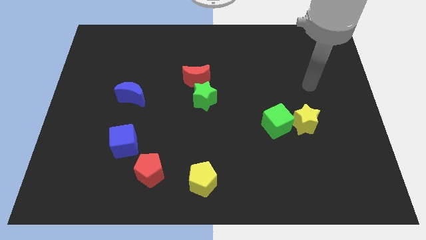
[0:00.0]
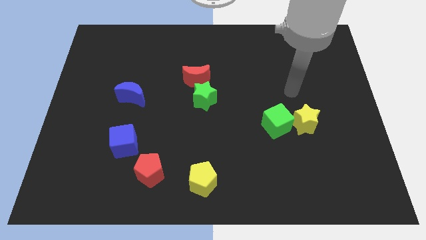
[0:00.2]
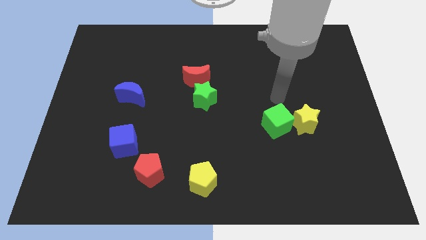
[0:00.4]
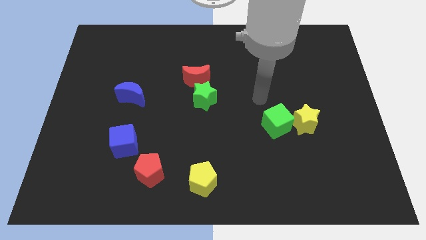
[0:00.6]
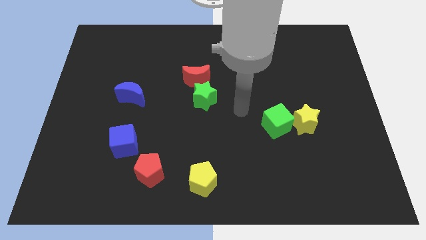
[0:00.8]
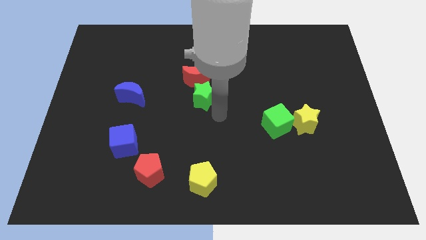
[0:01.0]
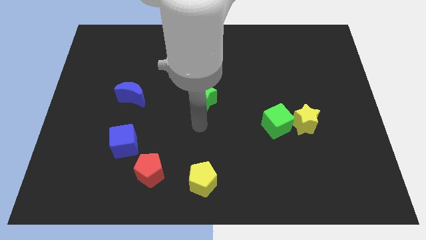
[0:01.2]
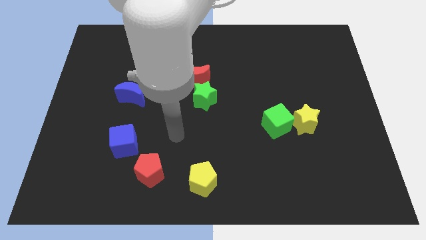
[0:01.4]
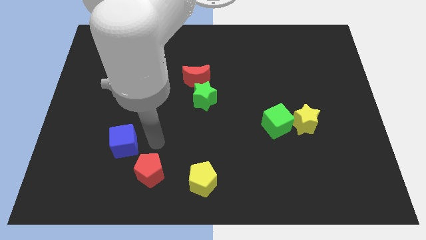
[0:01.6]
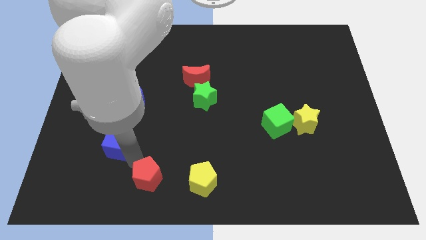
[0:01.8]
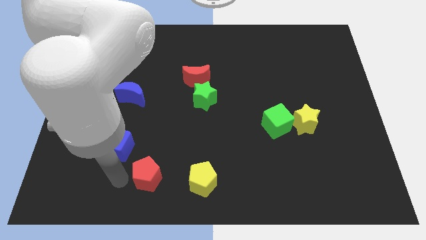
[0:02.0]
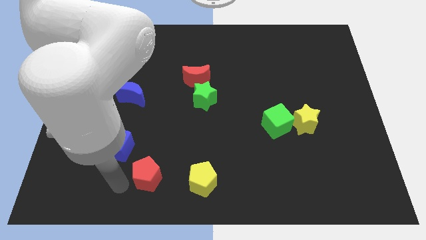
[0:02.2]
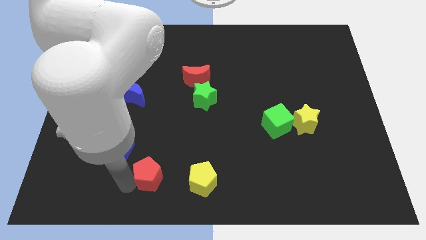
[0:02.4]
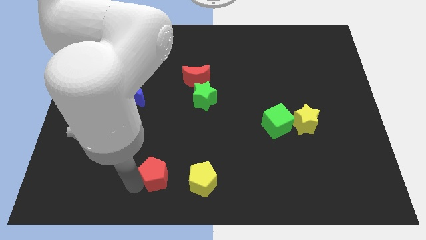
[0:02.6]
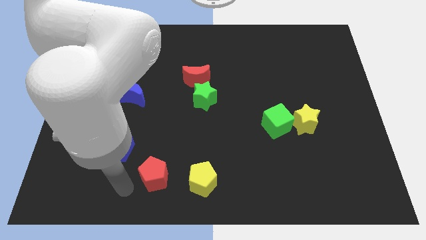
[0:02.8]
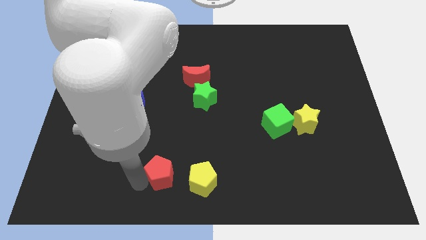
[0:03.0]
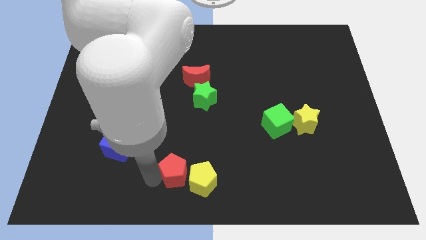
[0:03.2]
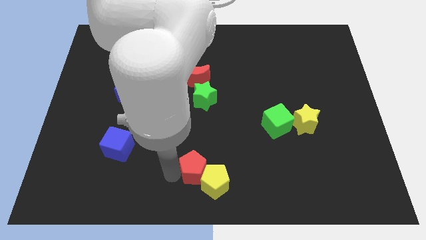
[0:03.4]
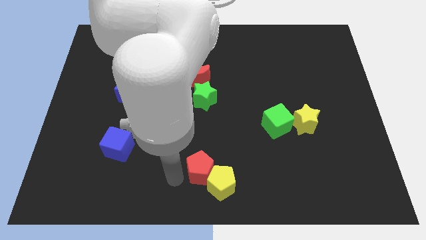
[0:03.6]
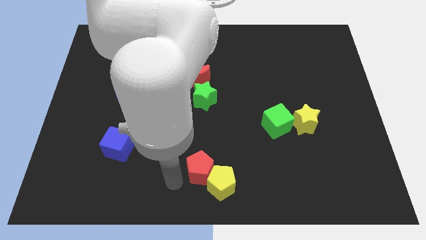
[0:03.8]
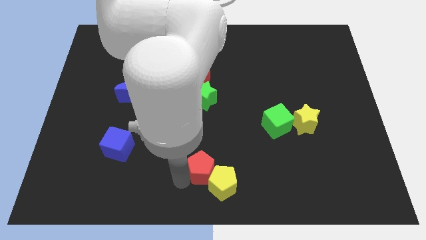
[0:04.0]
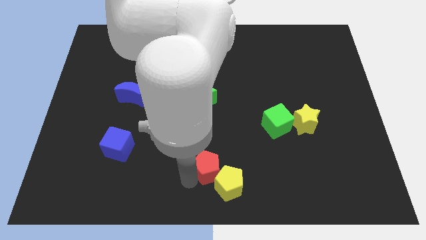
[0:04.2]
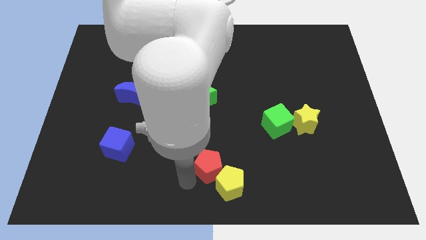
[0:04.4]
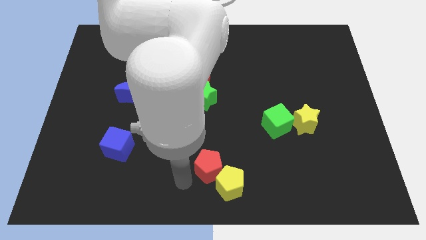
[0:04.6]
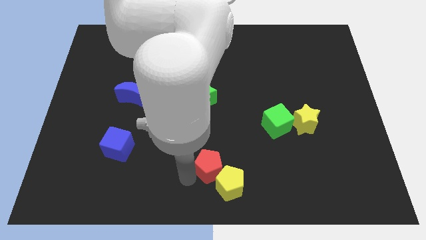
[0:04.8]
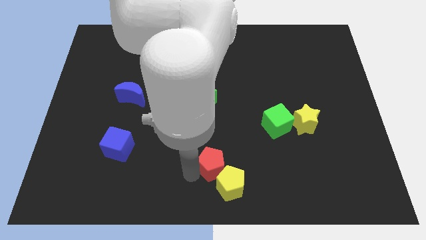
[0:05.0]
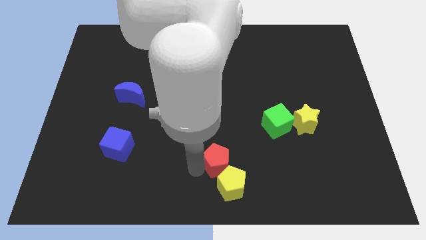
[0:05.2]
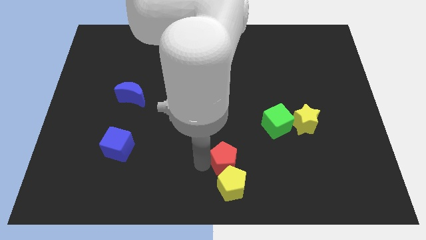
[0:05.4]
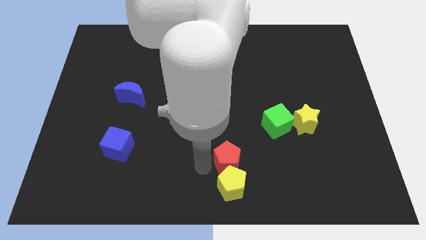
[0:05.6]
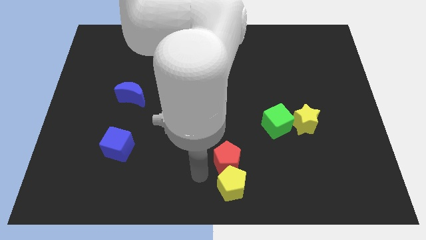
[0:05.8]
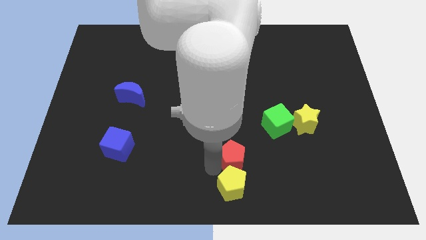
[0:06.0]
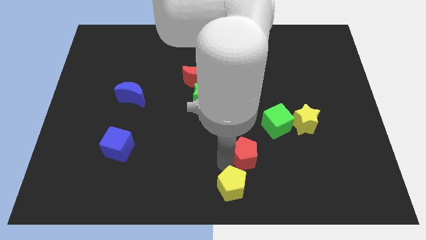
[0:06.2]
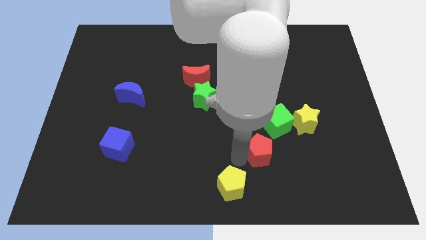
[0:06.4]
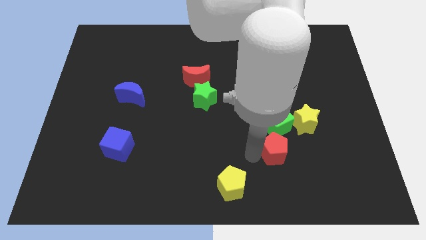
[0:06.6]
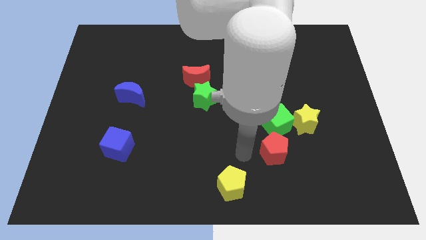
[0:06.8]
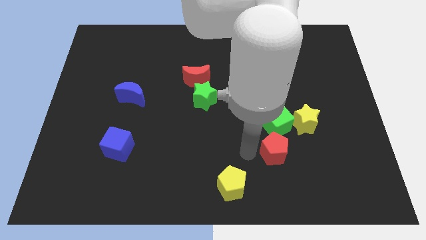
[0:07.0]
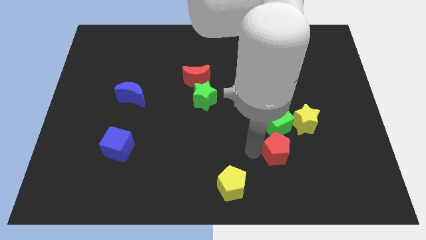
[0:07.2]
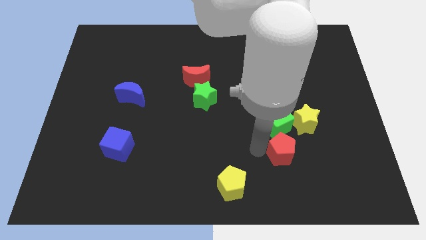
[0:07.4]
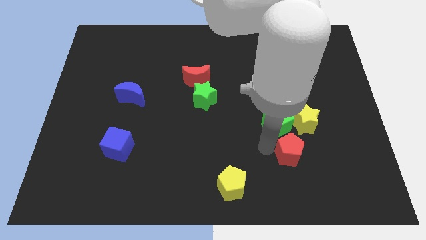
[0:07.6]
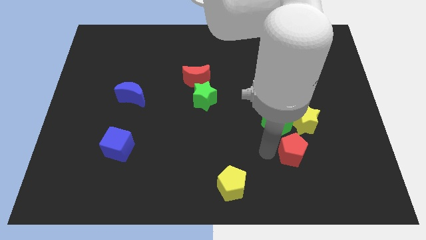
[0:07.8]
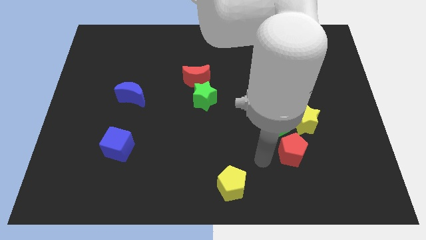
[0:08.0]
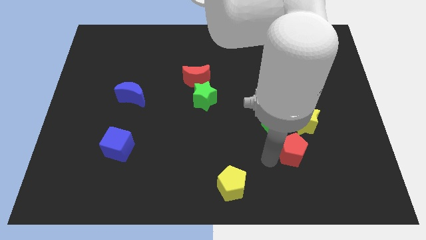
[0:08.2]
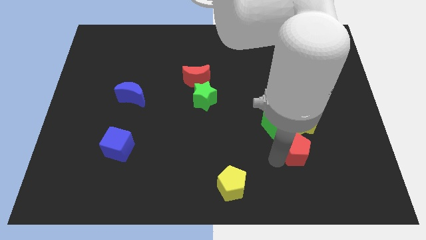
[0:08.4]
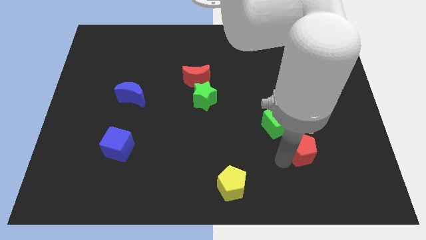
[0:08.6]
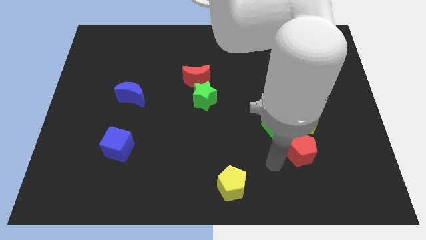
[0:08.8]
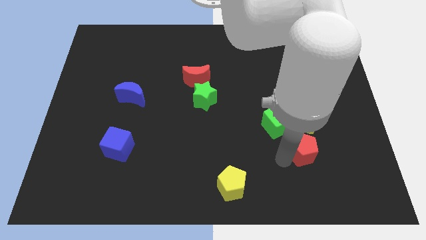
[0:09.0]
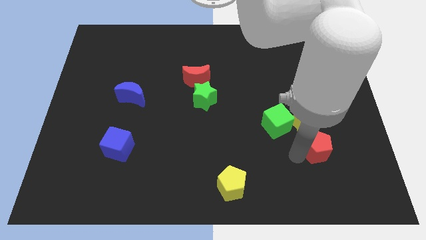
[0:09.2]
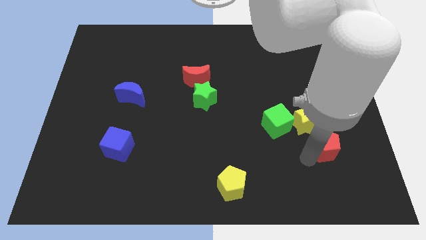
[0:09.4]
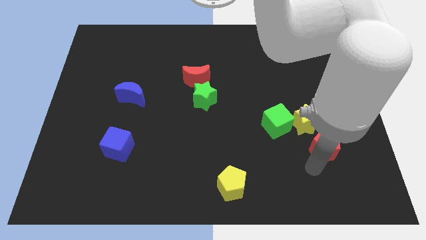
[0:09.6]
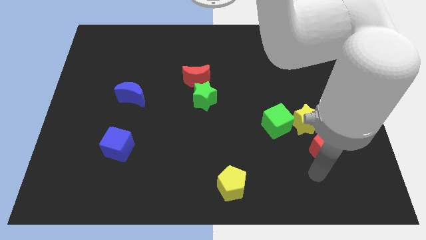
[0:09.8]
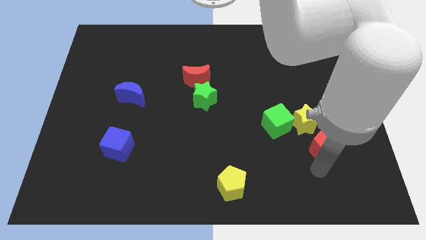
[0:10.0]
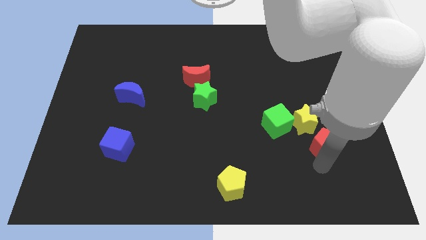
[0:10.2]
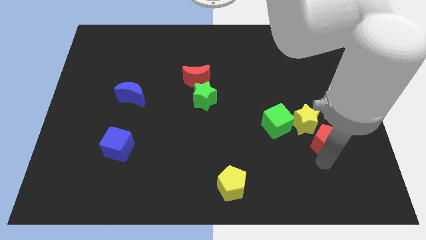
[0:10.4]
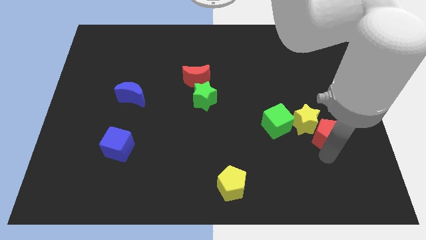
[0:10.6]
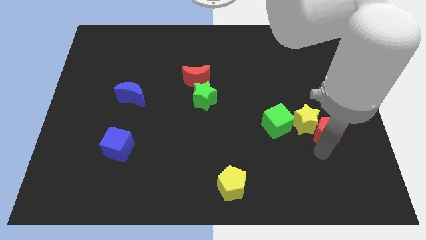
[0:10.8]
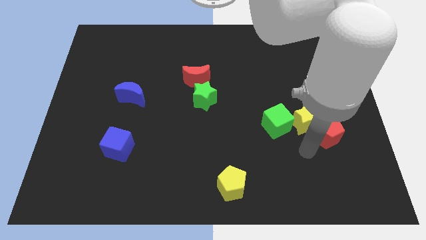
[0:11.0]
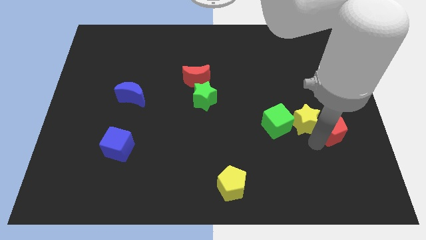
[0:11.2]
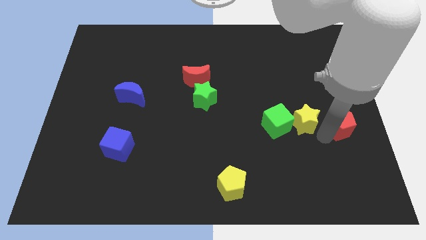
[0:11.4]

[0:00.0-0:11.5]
push the red pentagon to the center right

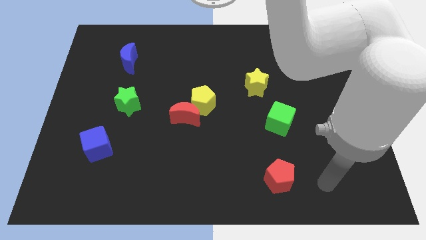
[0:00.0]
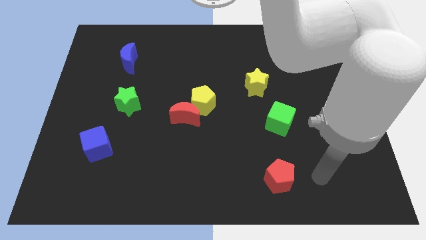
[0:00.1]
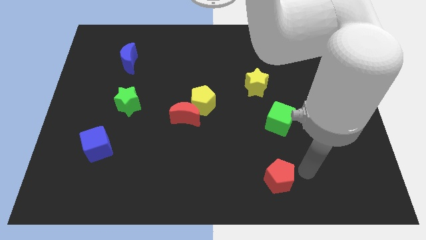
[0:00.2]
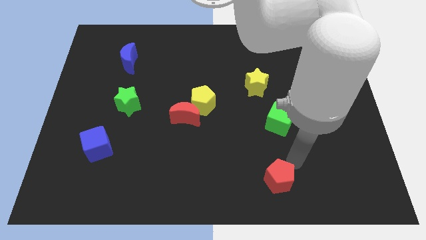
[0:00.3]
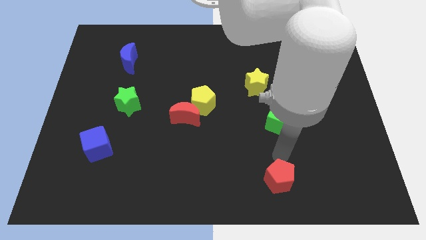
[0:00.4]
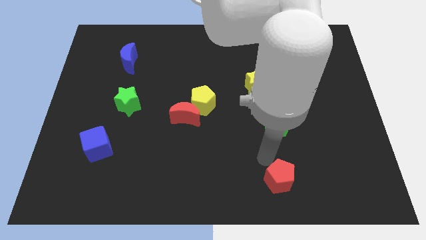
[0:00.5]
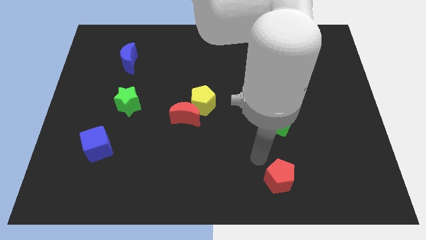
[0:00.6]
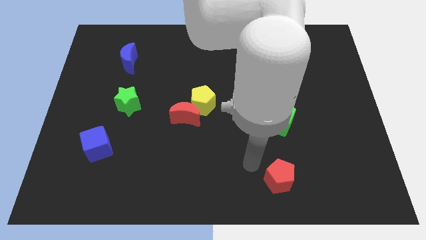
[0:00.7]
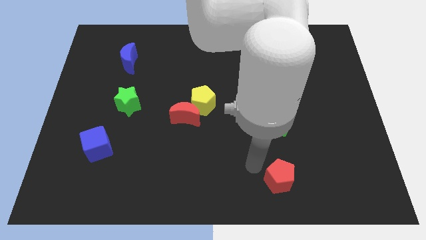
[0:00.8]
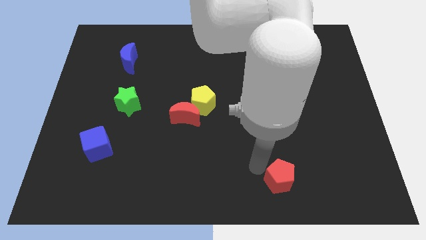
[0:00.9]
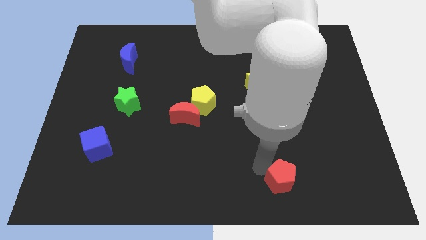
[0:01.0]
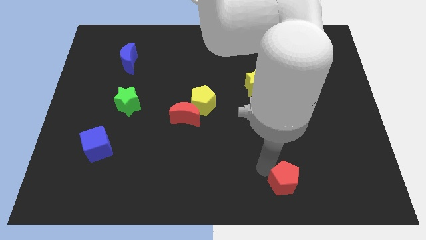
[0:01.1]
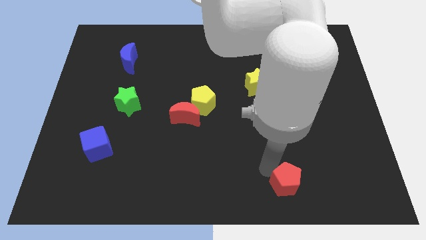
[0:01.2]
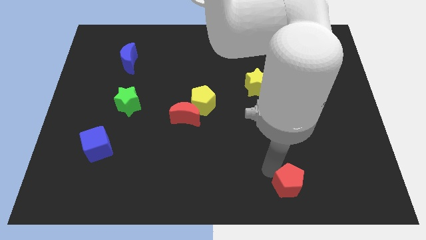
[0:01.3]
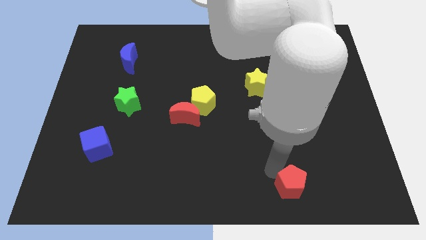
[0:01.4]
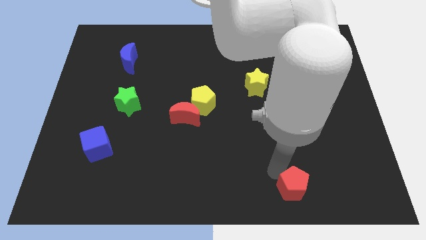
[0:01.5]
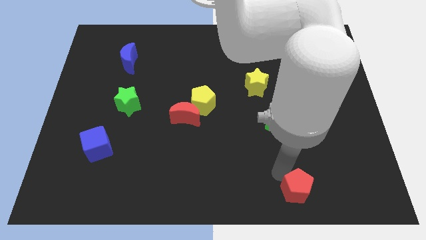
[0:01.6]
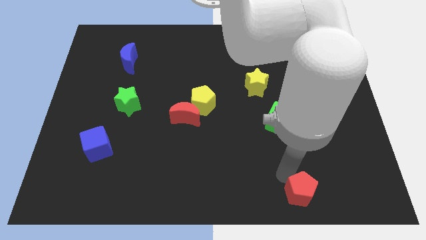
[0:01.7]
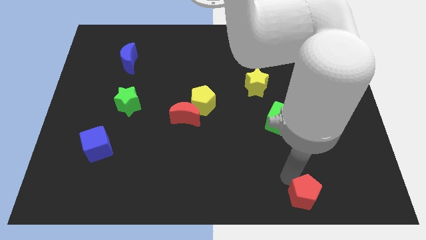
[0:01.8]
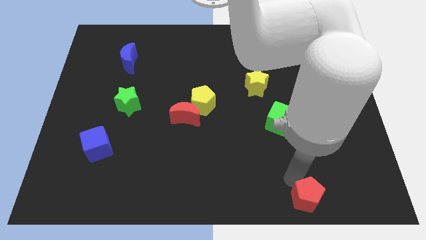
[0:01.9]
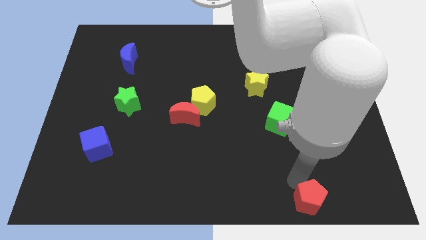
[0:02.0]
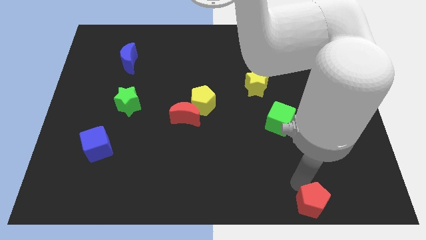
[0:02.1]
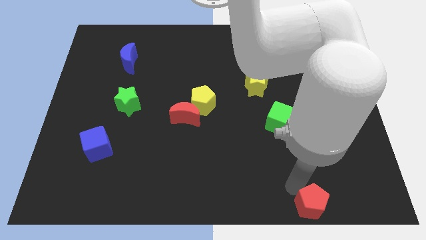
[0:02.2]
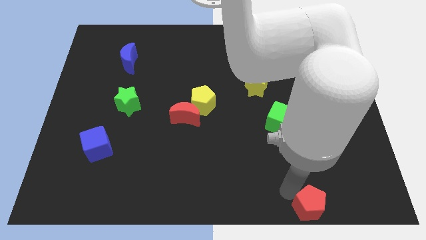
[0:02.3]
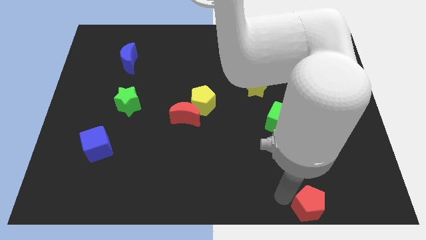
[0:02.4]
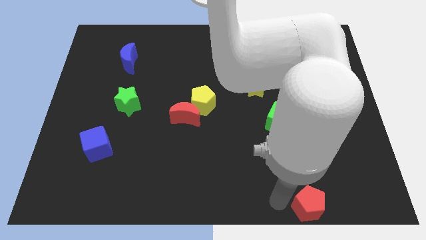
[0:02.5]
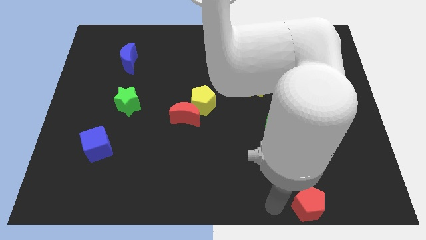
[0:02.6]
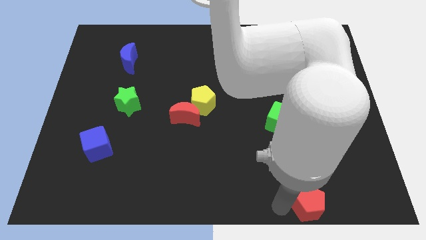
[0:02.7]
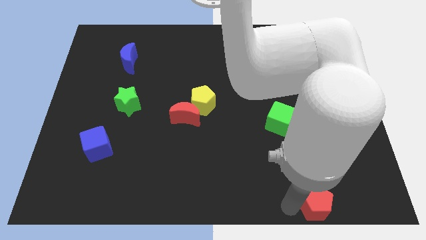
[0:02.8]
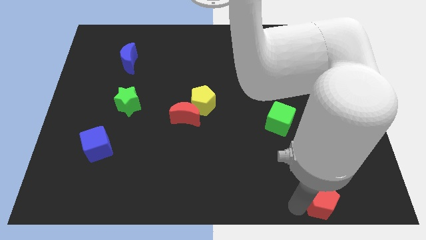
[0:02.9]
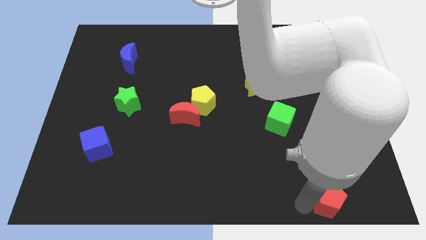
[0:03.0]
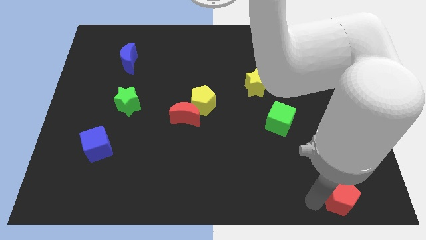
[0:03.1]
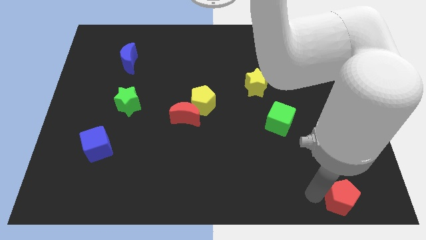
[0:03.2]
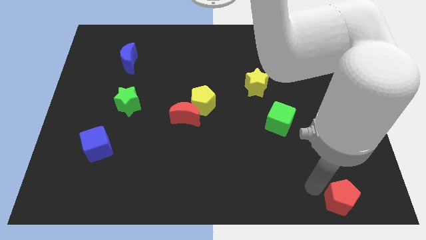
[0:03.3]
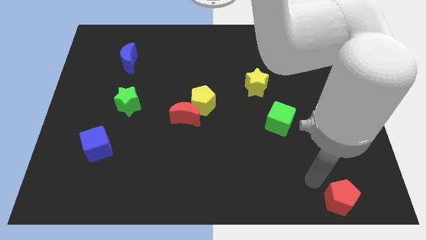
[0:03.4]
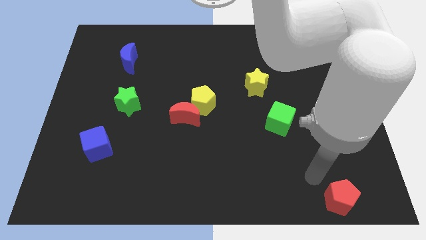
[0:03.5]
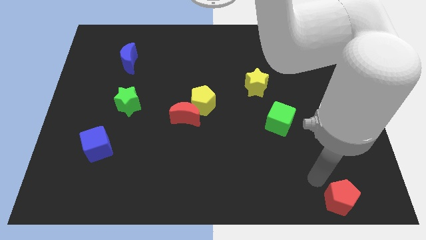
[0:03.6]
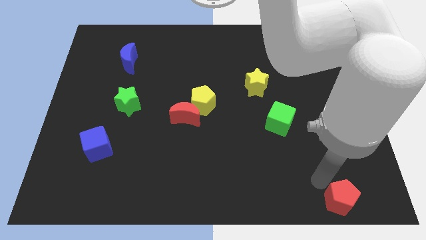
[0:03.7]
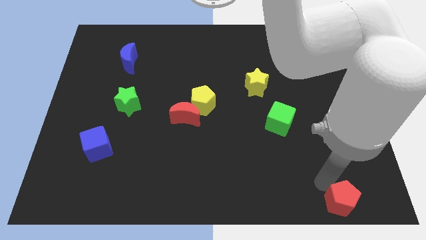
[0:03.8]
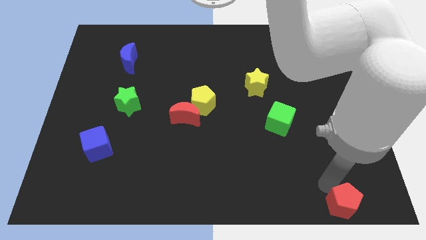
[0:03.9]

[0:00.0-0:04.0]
put the red pentagon to the bottom right corner
